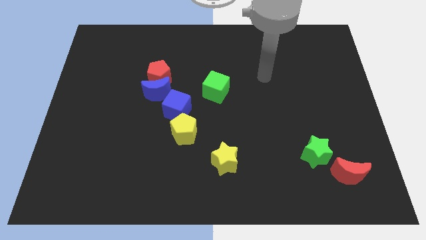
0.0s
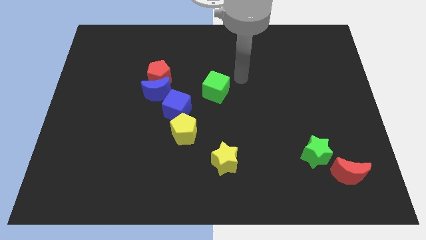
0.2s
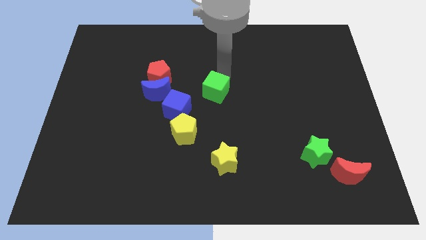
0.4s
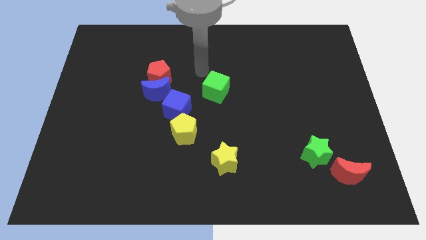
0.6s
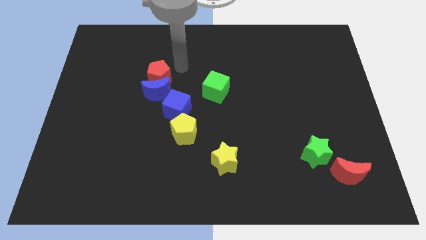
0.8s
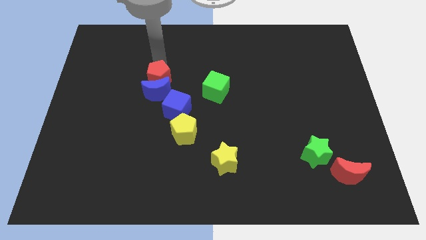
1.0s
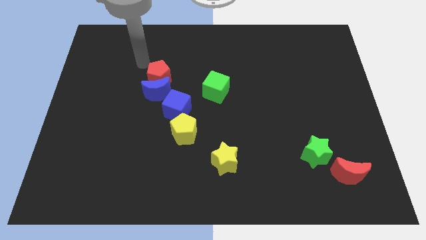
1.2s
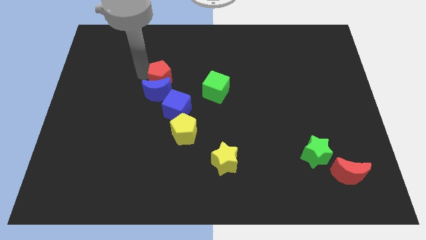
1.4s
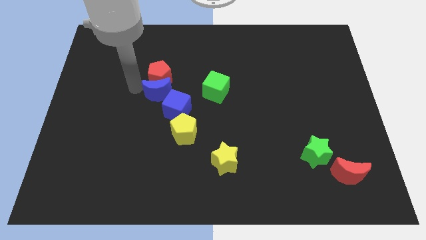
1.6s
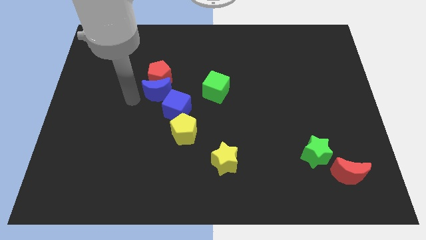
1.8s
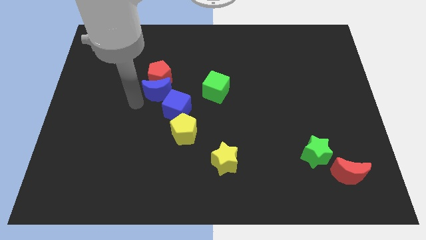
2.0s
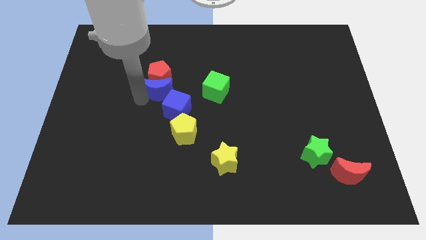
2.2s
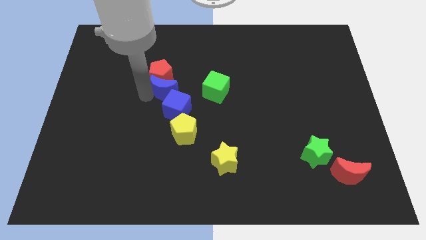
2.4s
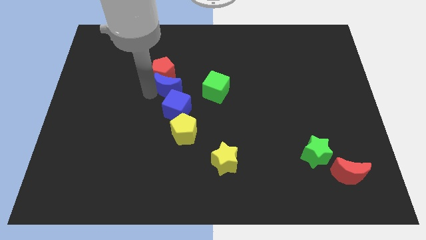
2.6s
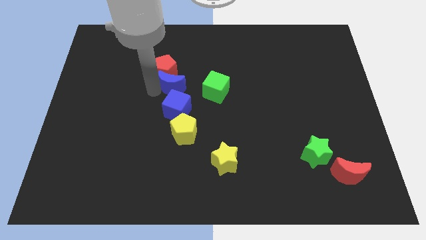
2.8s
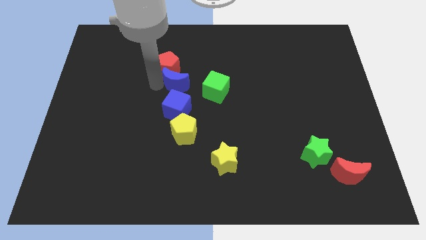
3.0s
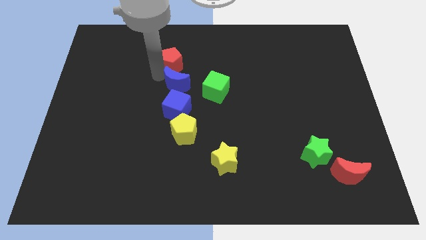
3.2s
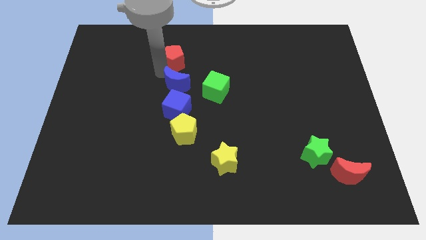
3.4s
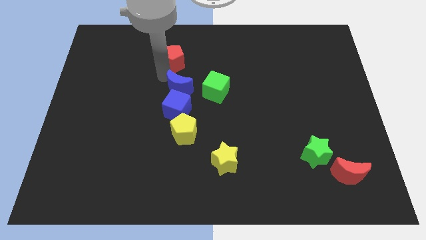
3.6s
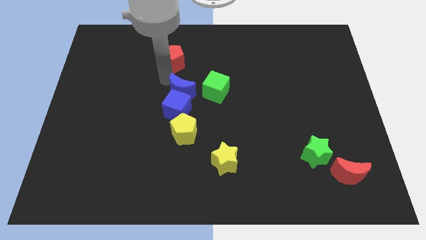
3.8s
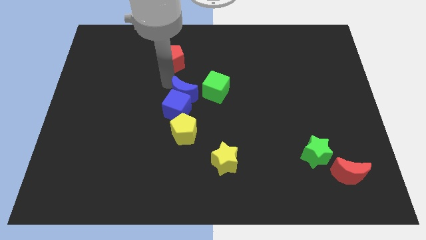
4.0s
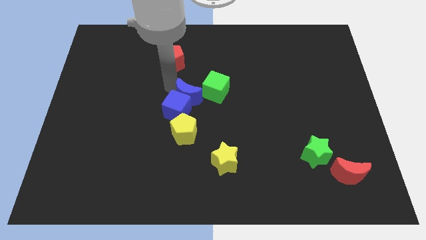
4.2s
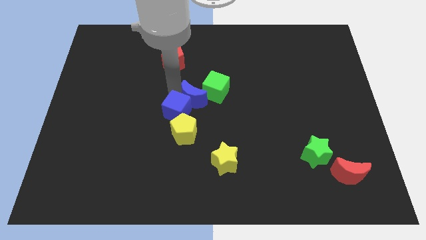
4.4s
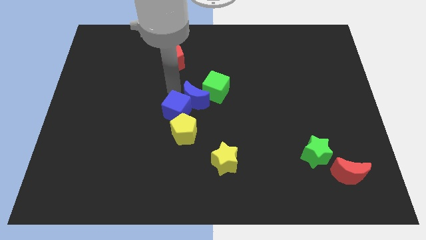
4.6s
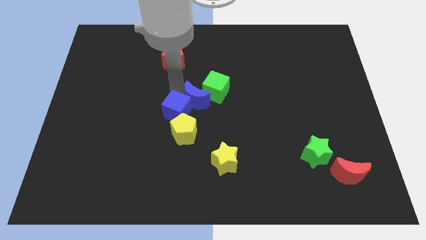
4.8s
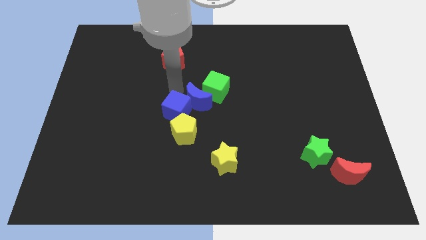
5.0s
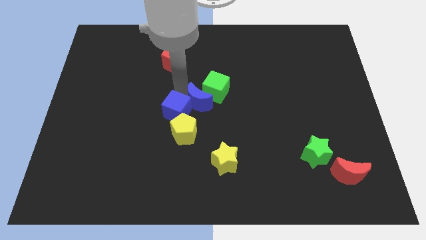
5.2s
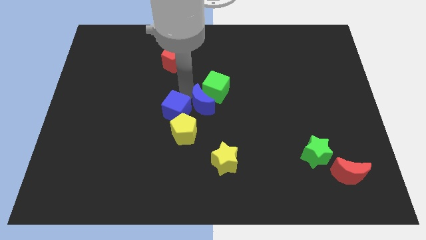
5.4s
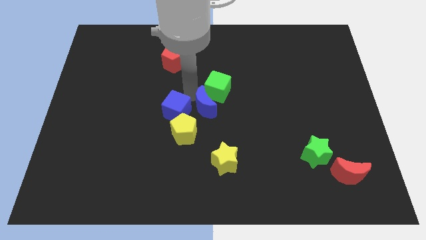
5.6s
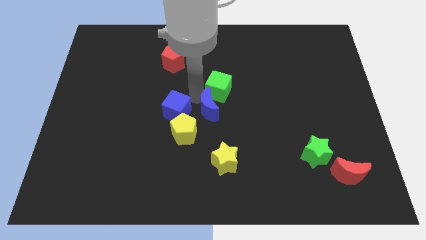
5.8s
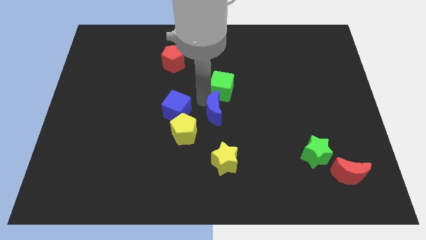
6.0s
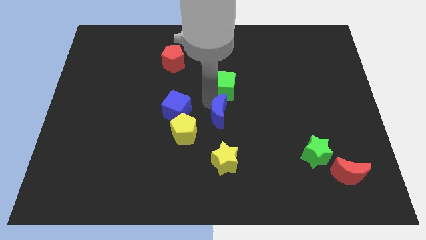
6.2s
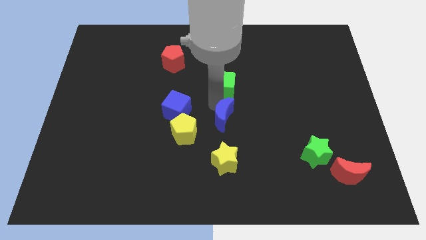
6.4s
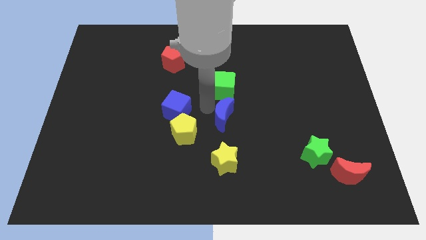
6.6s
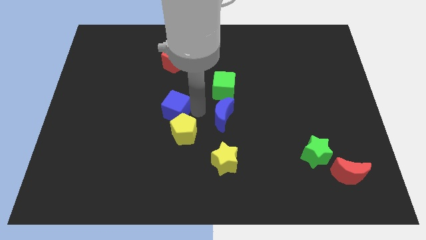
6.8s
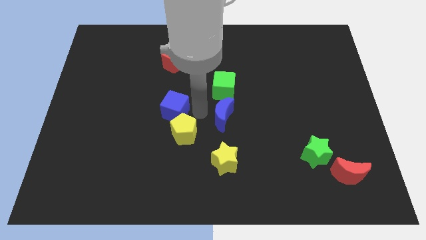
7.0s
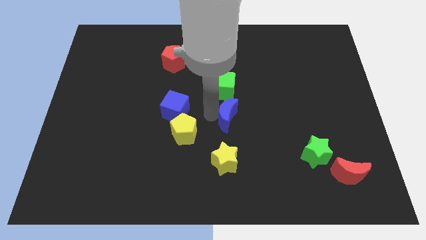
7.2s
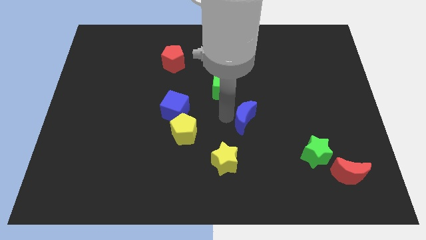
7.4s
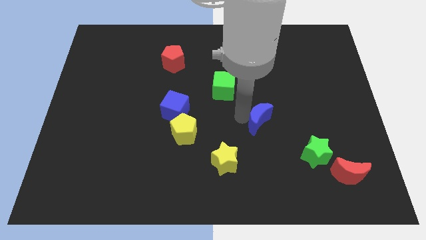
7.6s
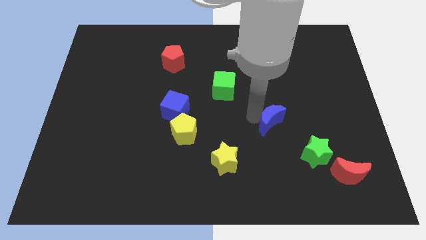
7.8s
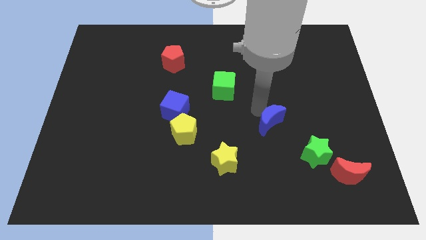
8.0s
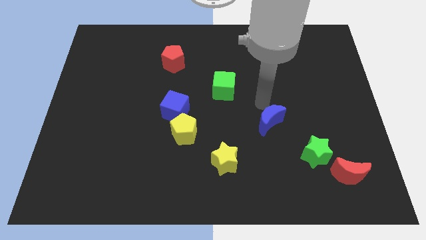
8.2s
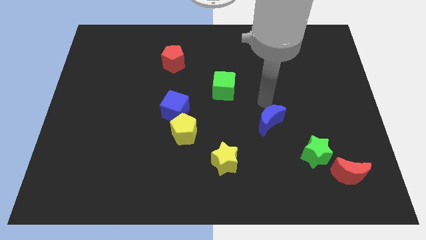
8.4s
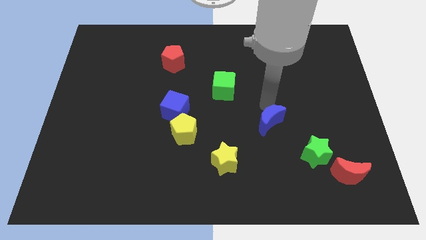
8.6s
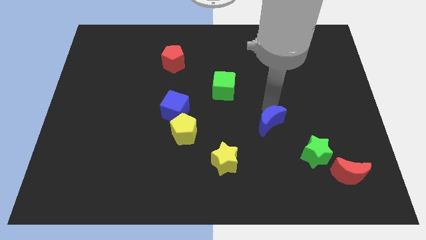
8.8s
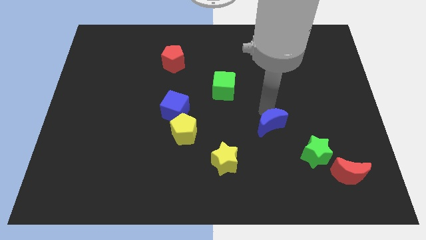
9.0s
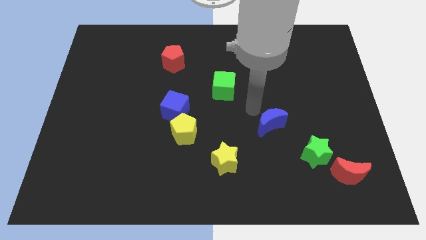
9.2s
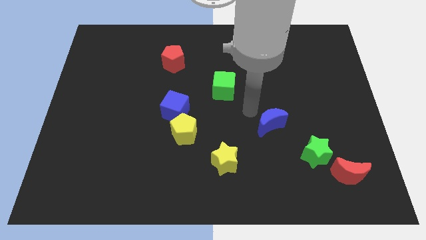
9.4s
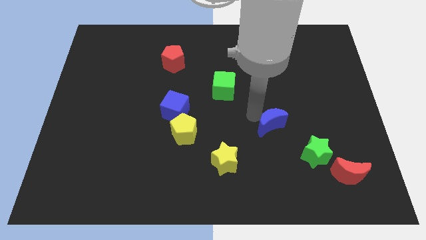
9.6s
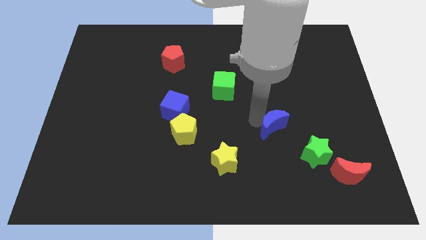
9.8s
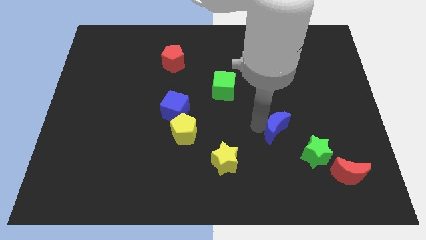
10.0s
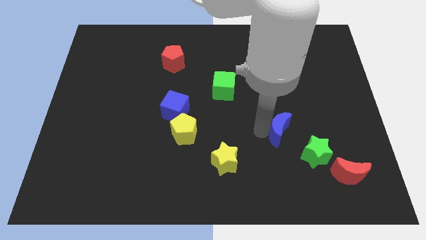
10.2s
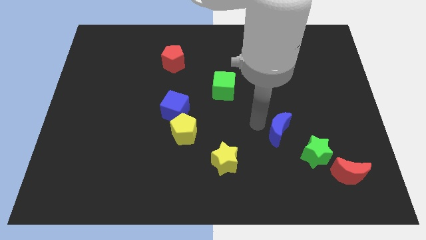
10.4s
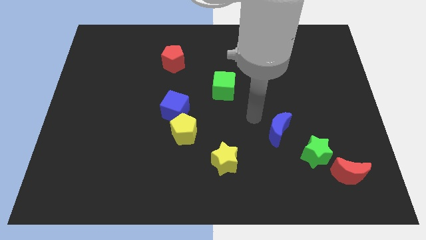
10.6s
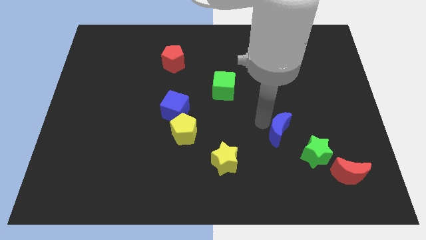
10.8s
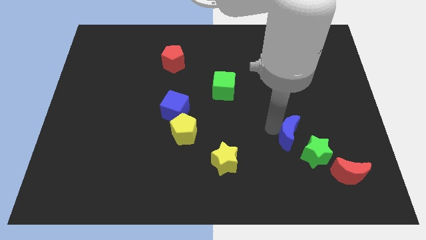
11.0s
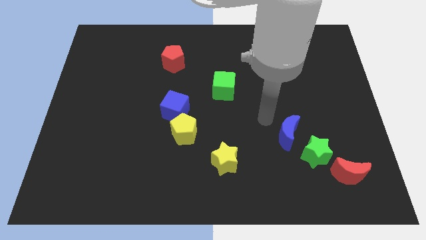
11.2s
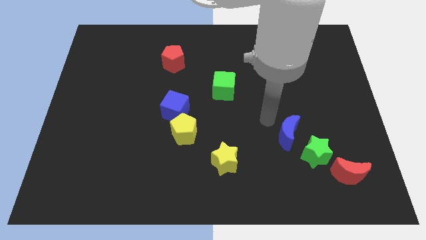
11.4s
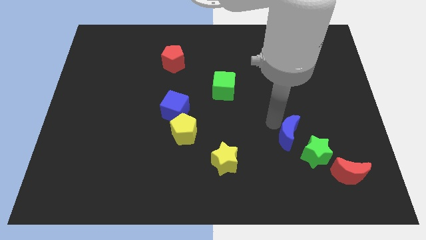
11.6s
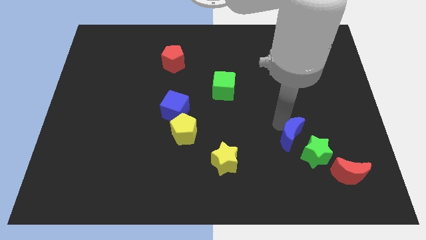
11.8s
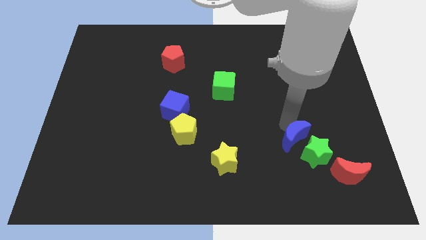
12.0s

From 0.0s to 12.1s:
slide the blue moon next to the green star

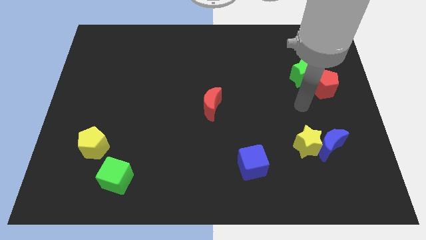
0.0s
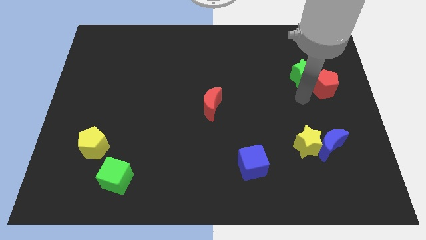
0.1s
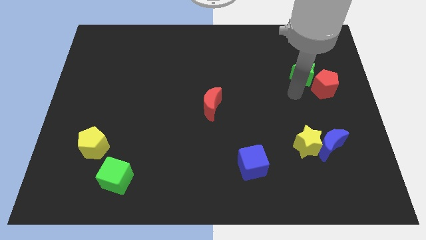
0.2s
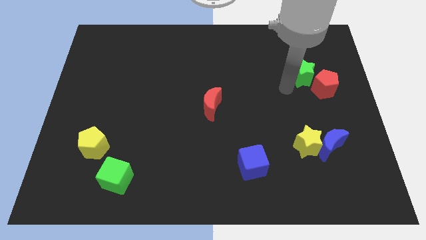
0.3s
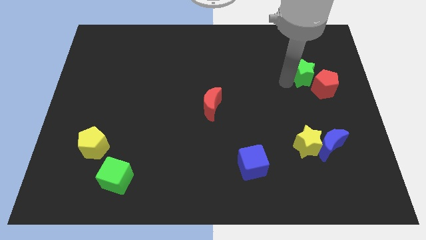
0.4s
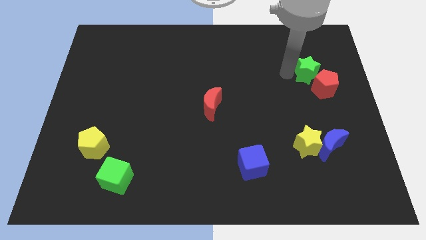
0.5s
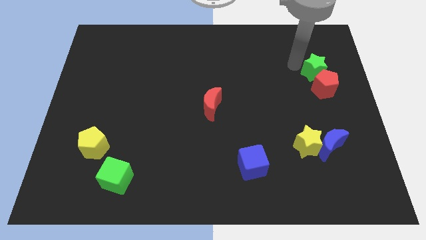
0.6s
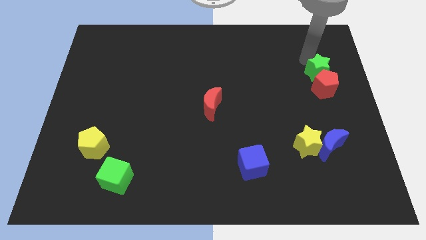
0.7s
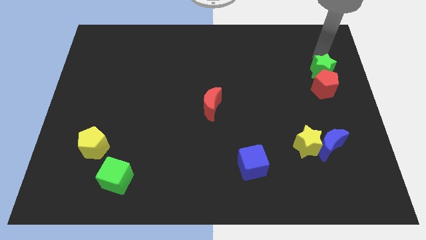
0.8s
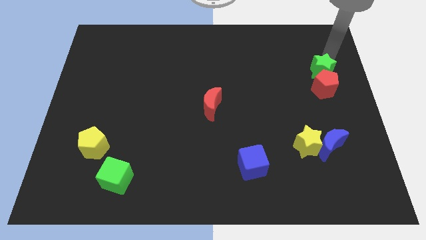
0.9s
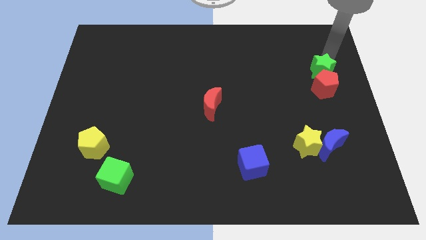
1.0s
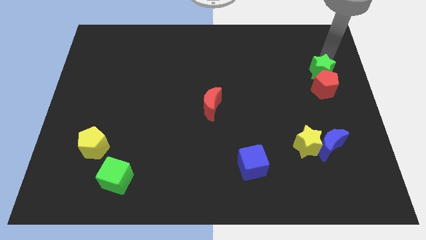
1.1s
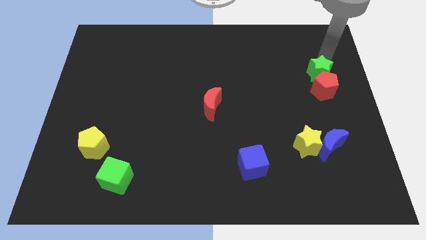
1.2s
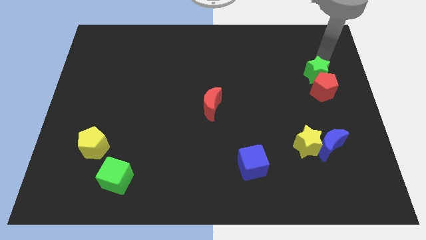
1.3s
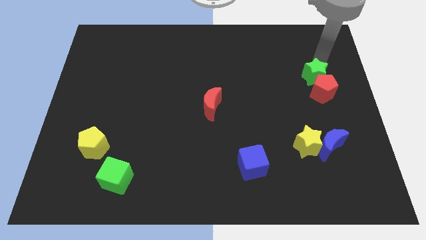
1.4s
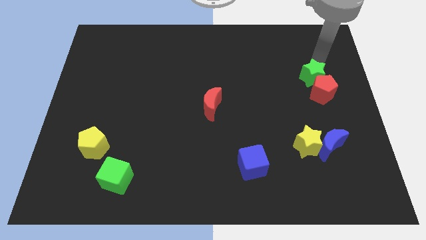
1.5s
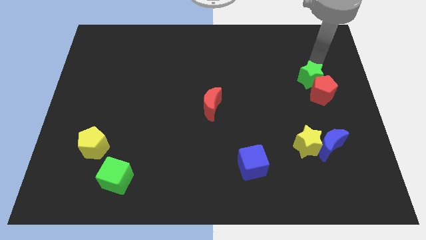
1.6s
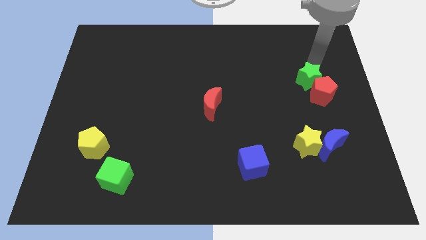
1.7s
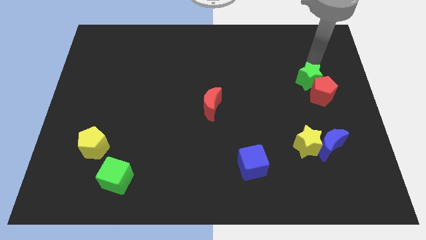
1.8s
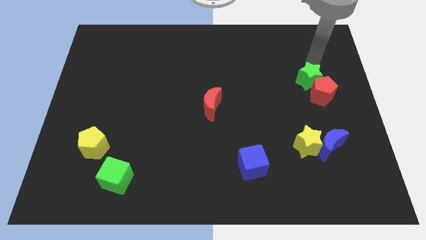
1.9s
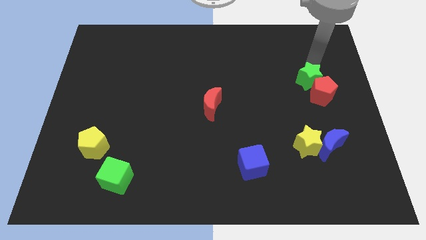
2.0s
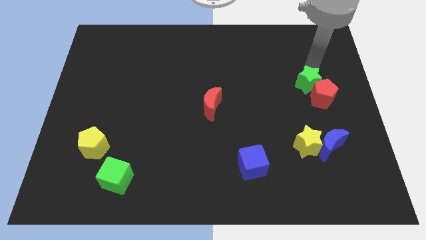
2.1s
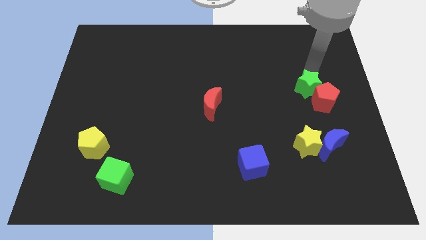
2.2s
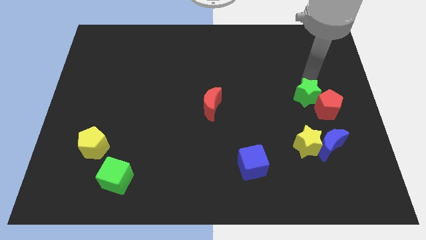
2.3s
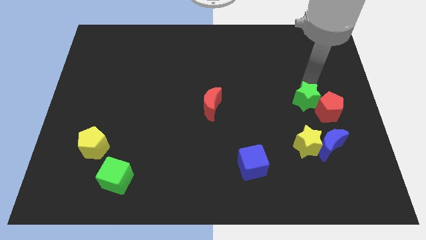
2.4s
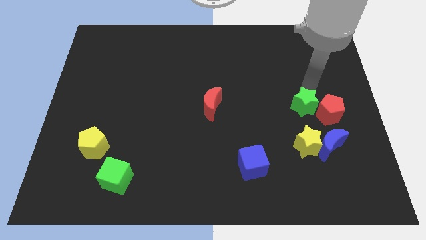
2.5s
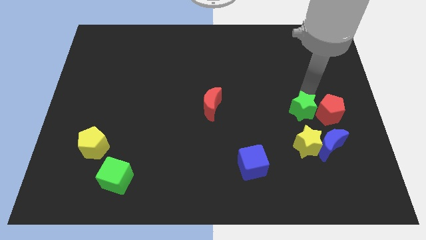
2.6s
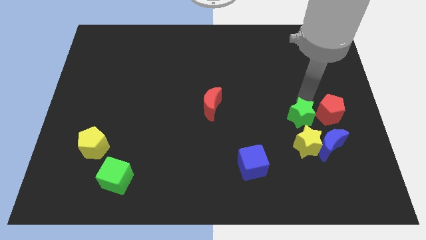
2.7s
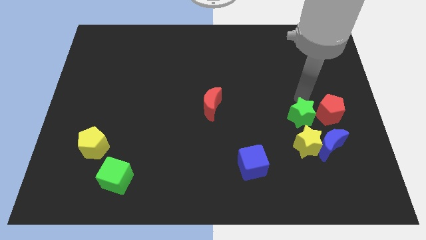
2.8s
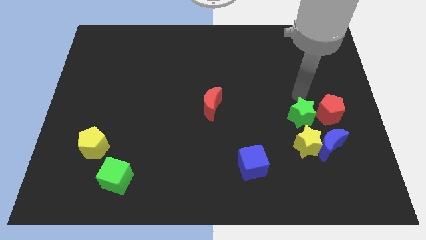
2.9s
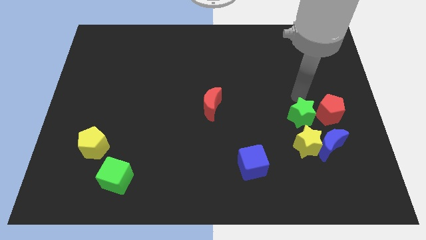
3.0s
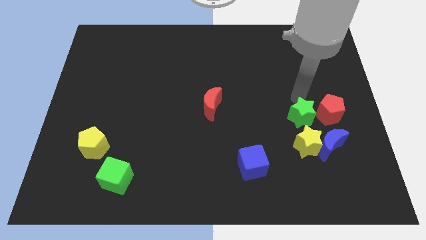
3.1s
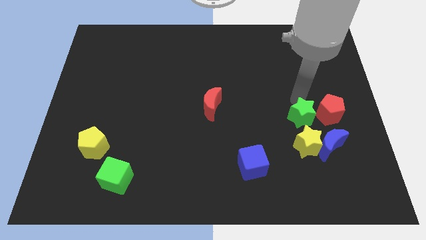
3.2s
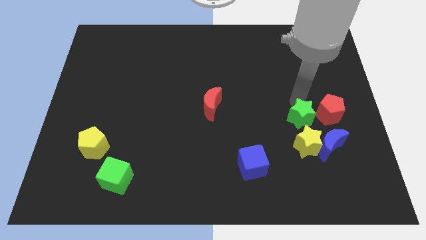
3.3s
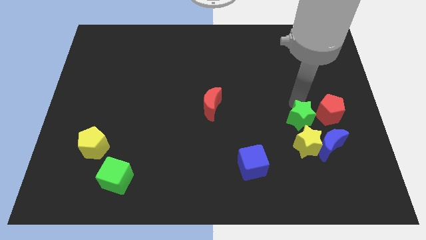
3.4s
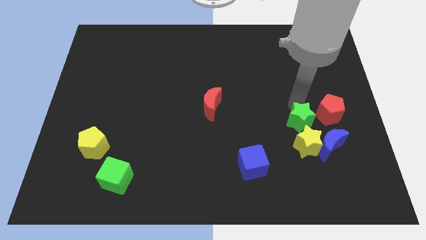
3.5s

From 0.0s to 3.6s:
put the green star next to the yellow star
